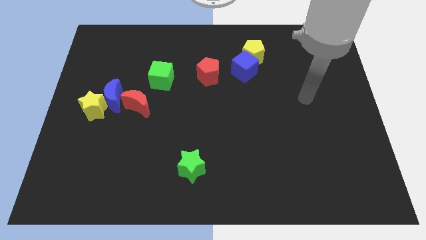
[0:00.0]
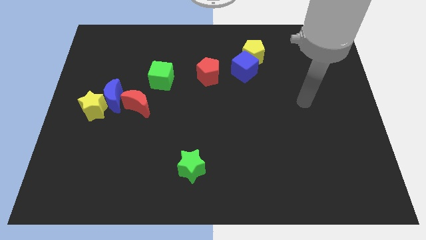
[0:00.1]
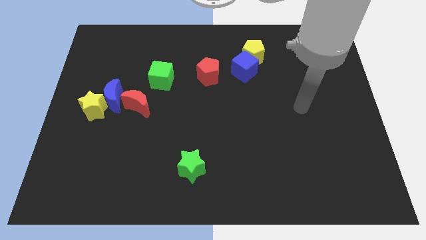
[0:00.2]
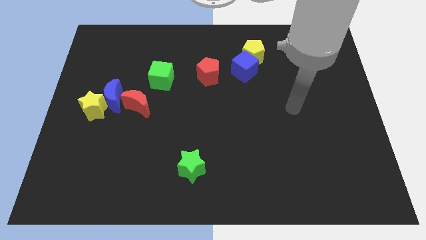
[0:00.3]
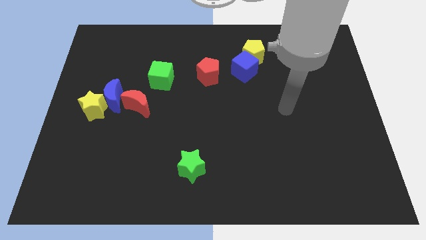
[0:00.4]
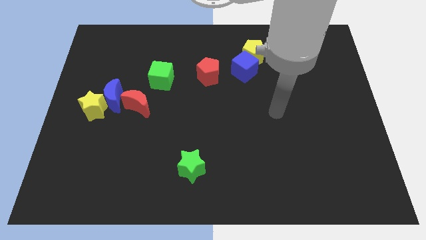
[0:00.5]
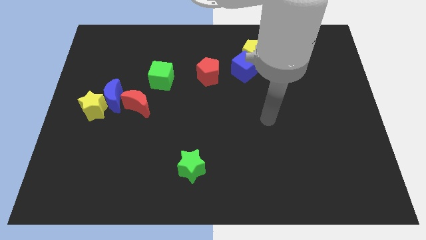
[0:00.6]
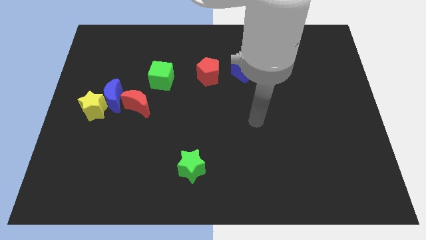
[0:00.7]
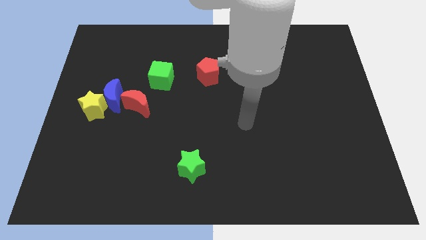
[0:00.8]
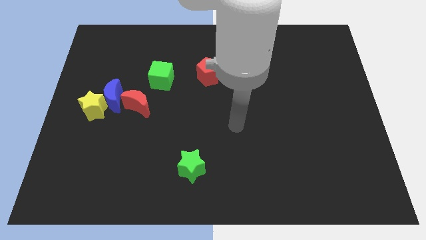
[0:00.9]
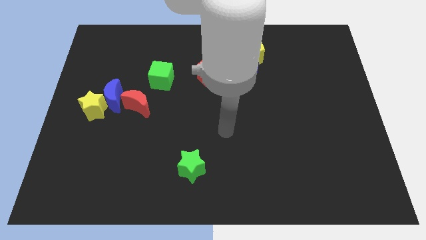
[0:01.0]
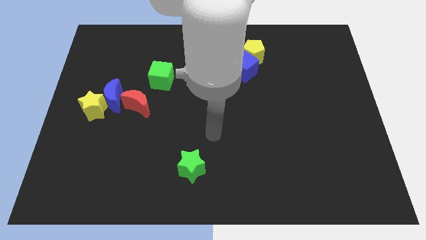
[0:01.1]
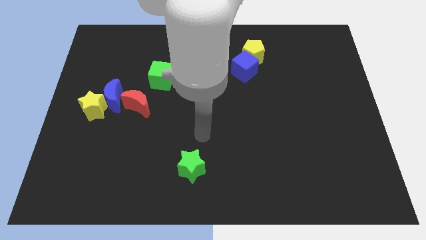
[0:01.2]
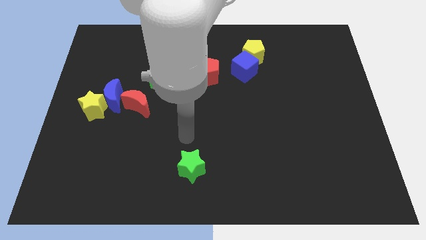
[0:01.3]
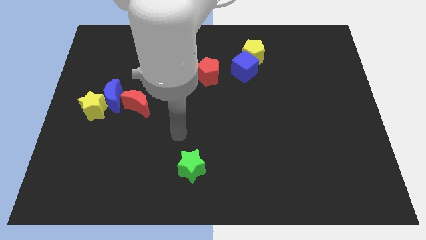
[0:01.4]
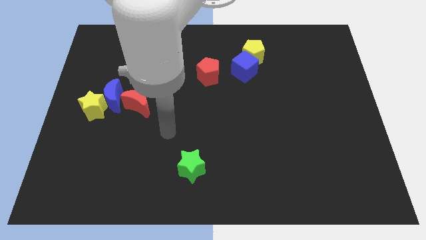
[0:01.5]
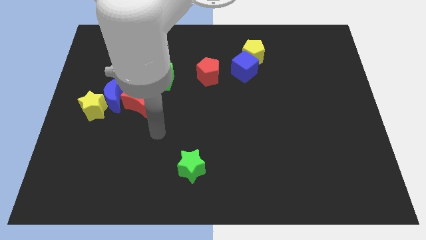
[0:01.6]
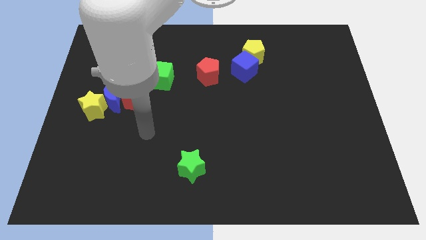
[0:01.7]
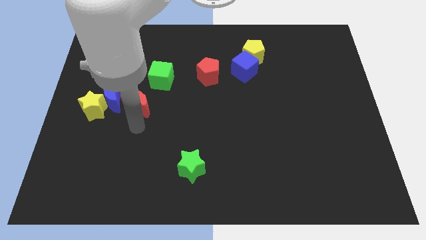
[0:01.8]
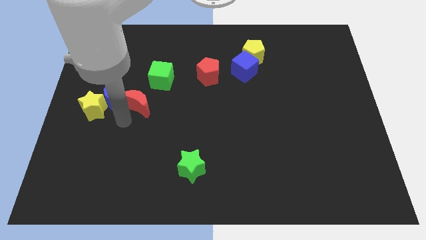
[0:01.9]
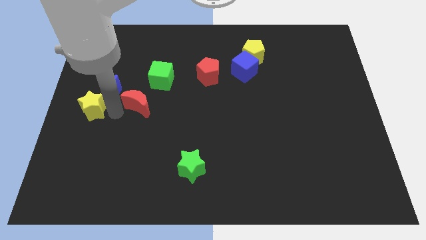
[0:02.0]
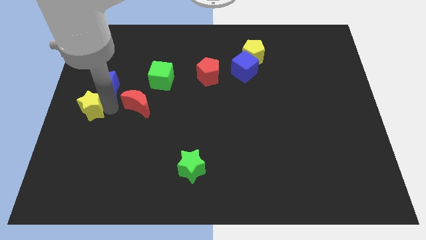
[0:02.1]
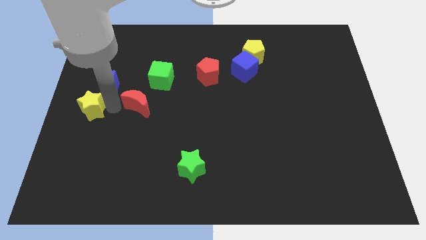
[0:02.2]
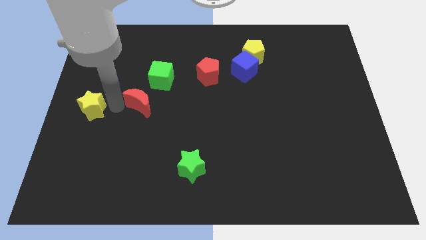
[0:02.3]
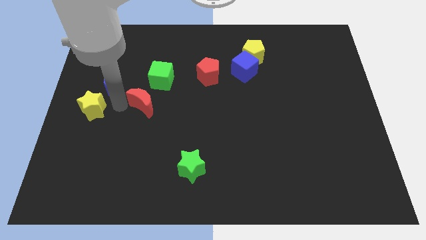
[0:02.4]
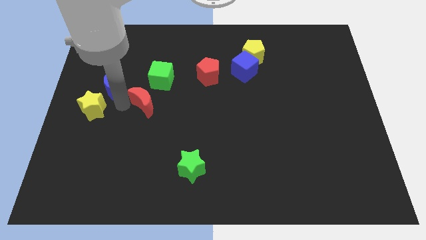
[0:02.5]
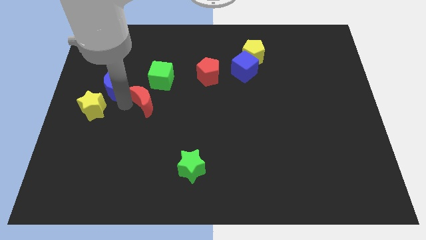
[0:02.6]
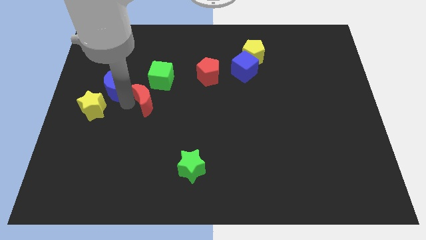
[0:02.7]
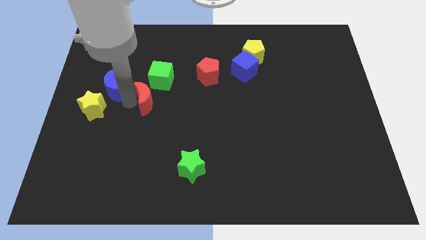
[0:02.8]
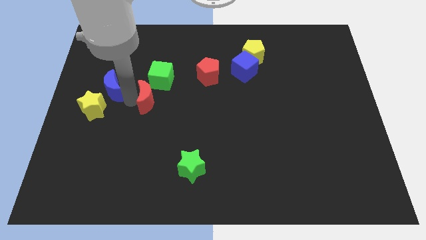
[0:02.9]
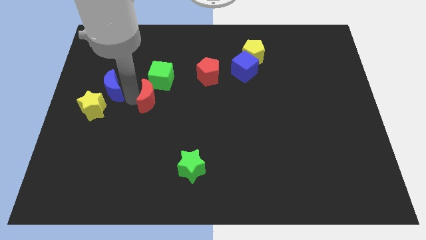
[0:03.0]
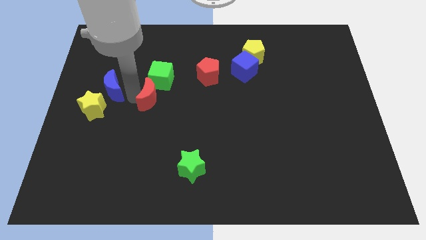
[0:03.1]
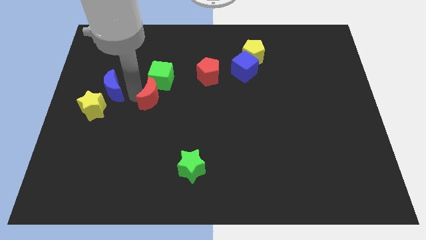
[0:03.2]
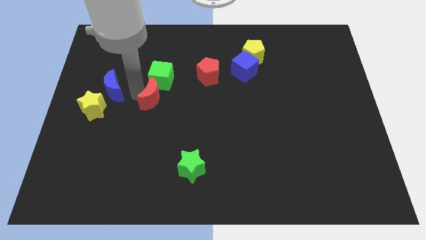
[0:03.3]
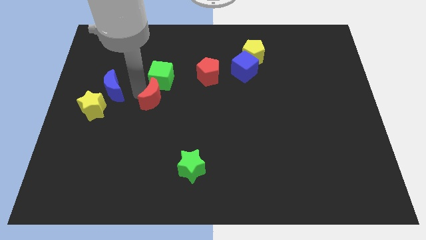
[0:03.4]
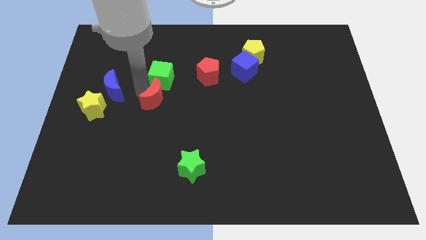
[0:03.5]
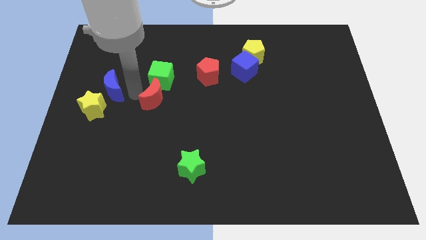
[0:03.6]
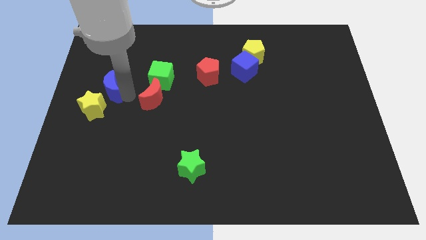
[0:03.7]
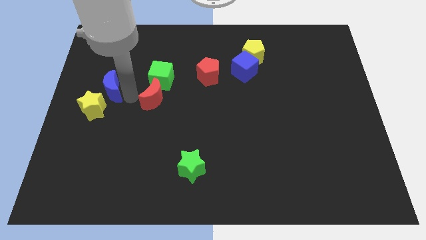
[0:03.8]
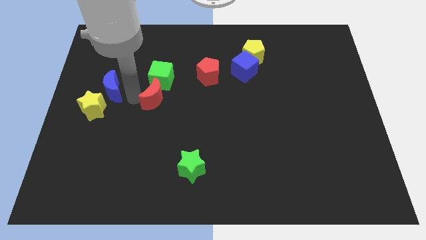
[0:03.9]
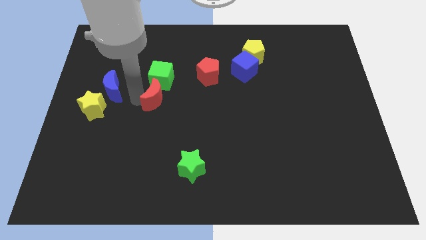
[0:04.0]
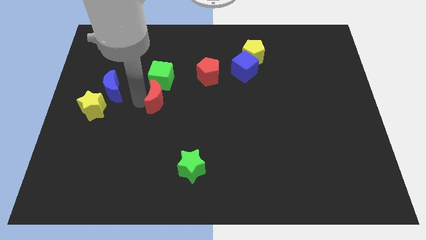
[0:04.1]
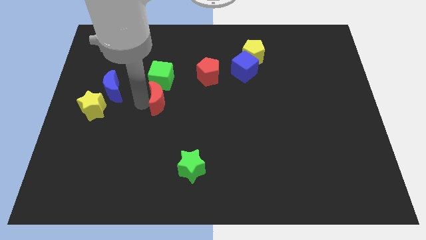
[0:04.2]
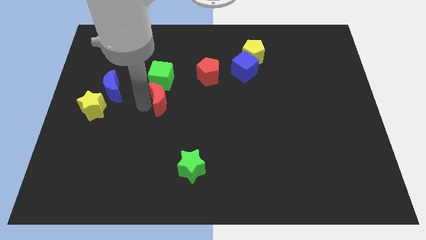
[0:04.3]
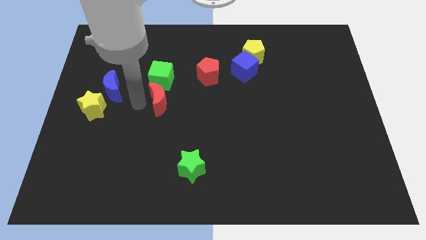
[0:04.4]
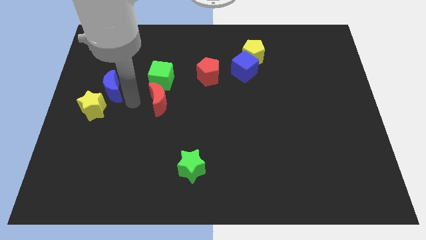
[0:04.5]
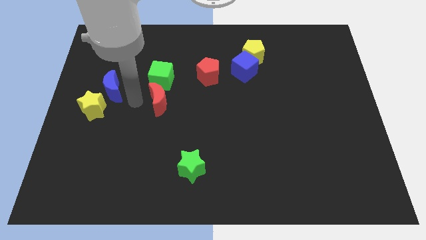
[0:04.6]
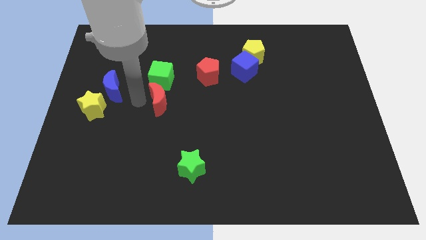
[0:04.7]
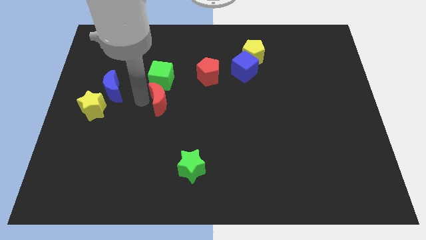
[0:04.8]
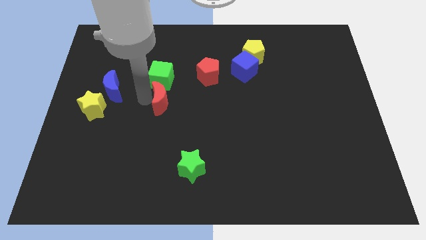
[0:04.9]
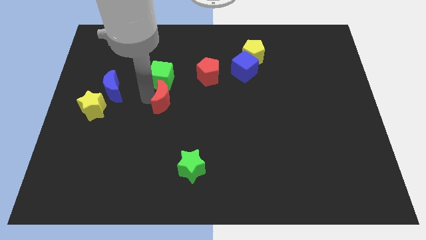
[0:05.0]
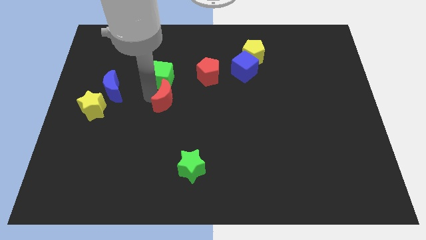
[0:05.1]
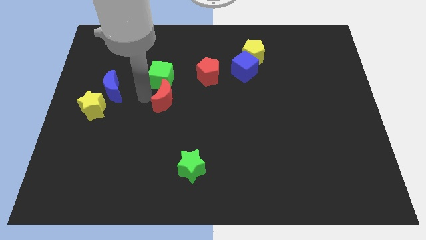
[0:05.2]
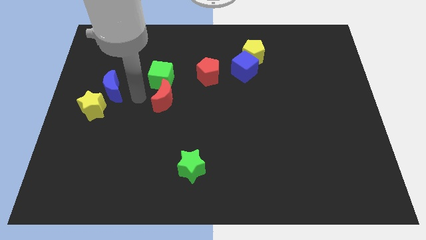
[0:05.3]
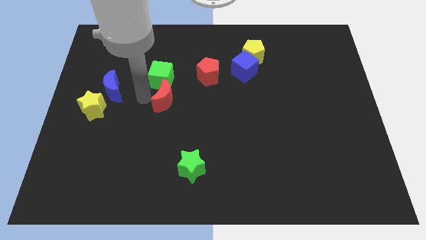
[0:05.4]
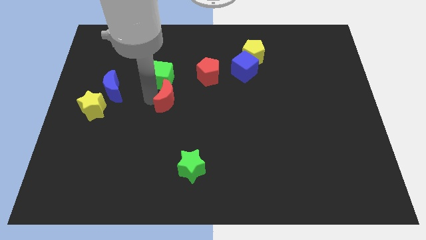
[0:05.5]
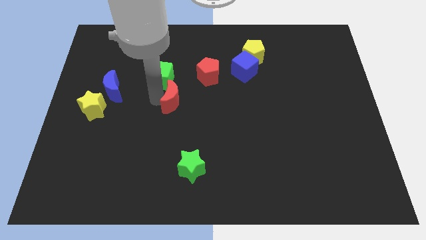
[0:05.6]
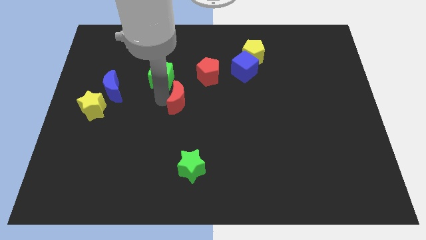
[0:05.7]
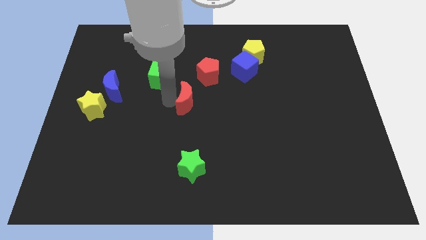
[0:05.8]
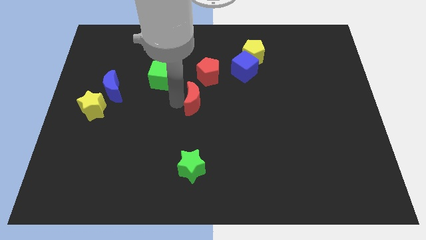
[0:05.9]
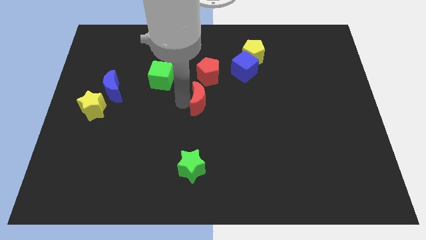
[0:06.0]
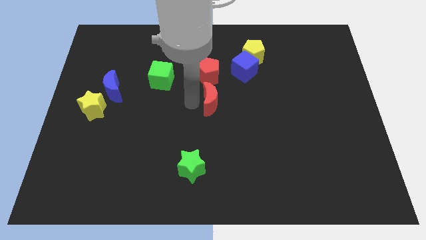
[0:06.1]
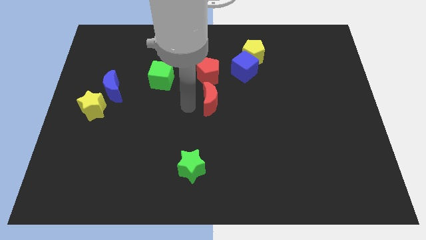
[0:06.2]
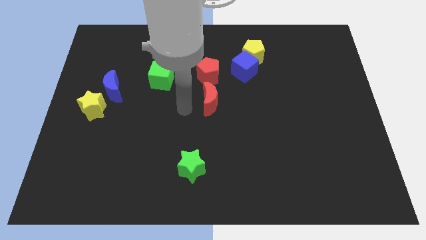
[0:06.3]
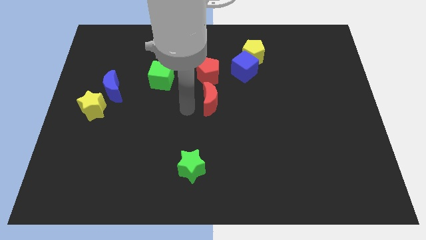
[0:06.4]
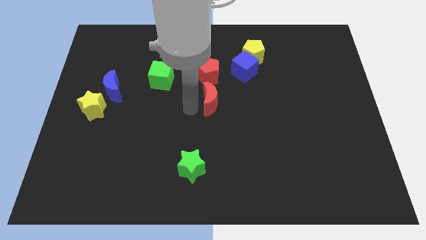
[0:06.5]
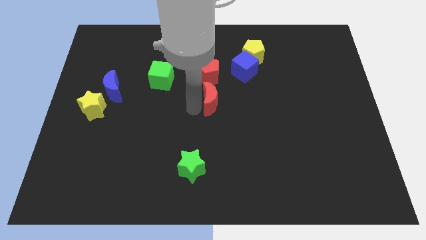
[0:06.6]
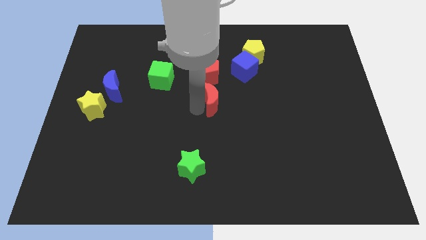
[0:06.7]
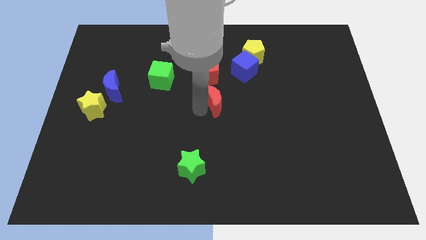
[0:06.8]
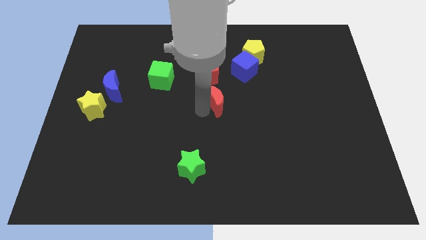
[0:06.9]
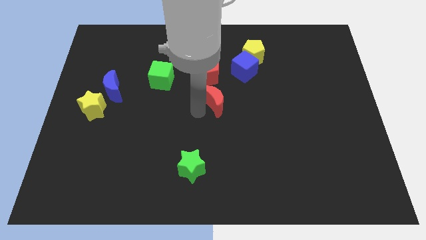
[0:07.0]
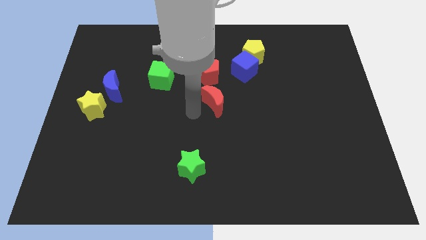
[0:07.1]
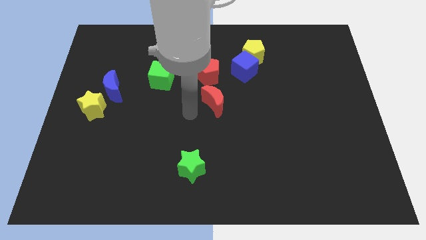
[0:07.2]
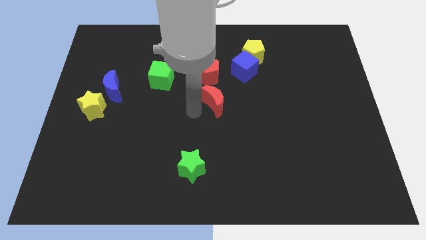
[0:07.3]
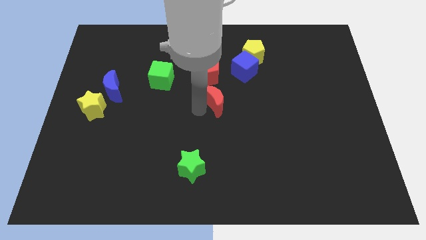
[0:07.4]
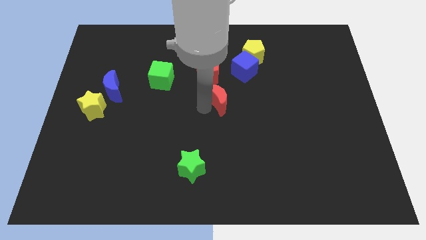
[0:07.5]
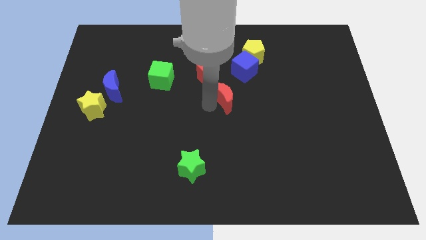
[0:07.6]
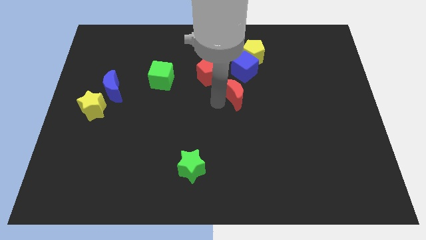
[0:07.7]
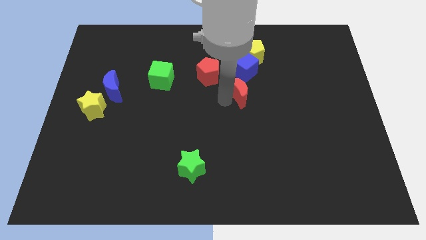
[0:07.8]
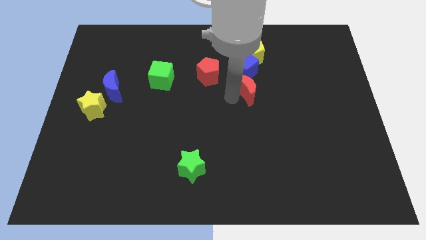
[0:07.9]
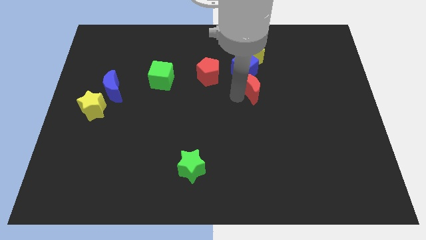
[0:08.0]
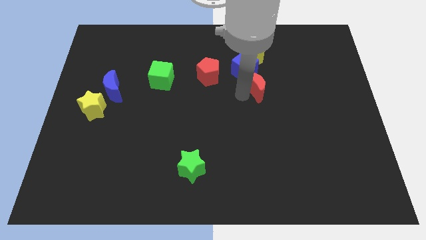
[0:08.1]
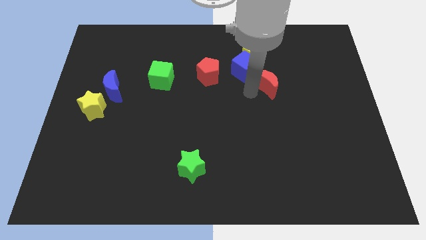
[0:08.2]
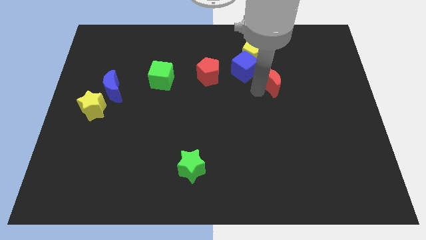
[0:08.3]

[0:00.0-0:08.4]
slide the red moon to the bottom right side of the yellow pentagon

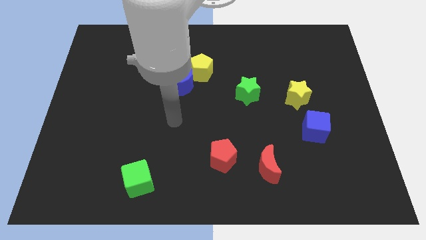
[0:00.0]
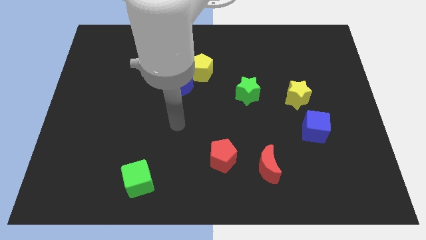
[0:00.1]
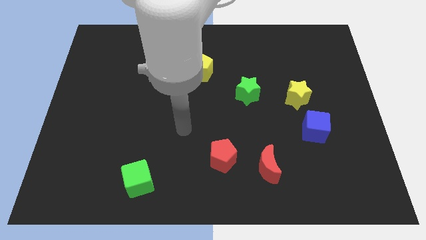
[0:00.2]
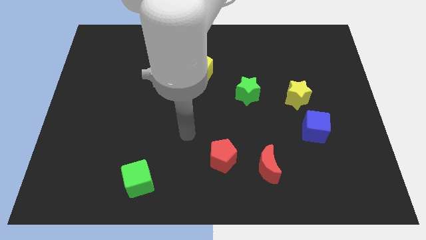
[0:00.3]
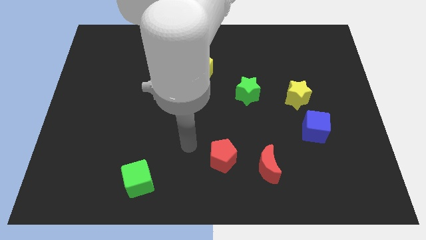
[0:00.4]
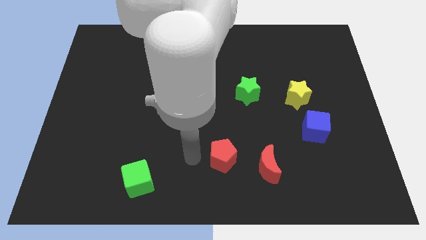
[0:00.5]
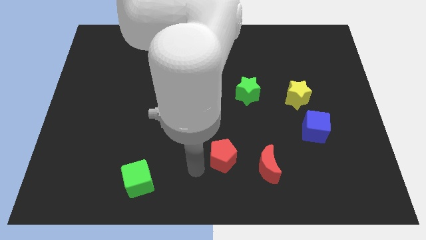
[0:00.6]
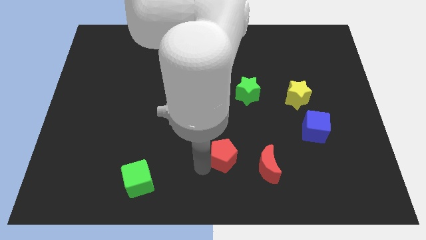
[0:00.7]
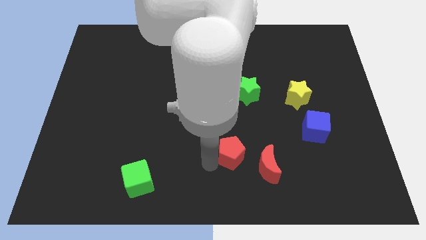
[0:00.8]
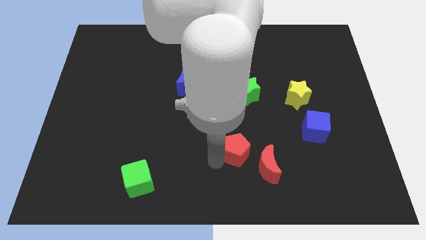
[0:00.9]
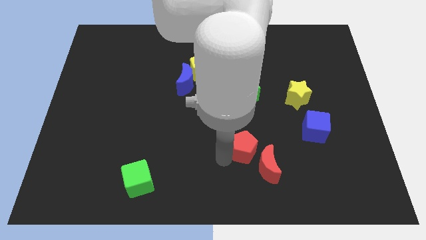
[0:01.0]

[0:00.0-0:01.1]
slide the red pentagon below the green star
